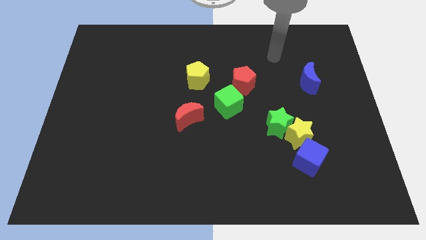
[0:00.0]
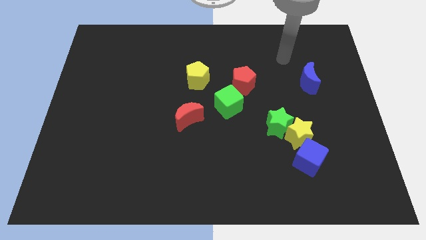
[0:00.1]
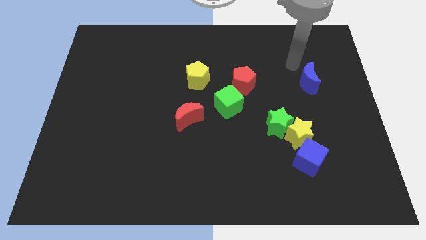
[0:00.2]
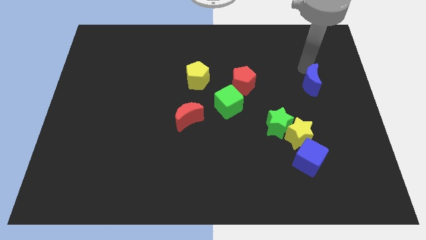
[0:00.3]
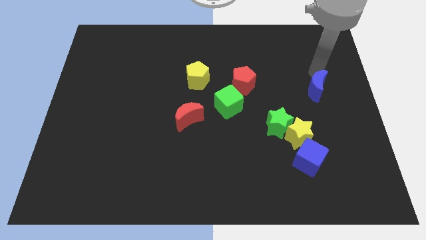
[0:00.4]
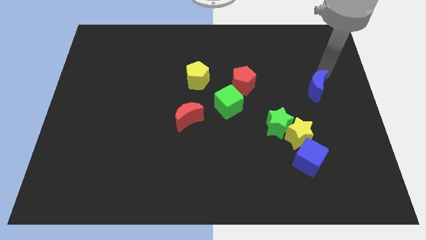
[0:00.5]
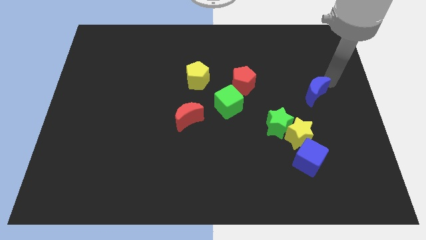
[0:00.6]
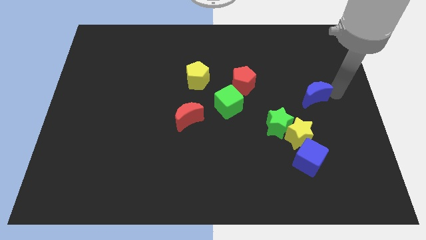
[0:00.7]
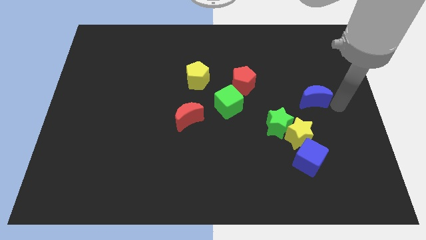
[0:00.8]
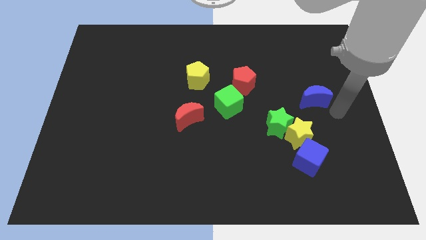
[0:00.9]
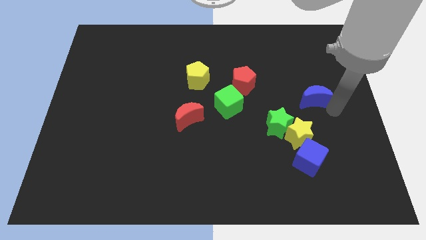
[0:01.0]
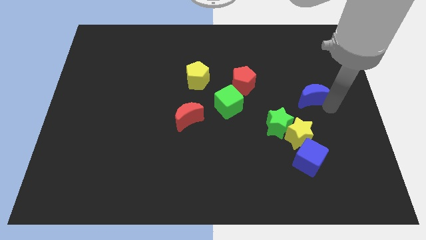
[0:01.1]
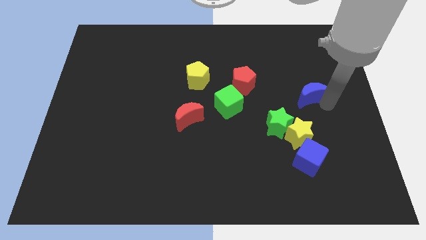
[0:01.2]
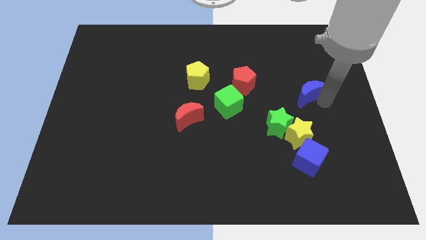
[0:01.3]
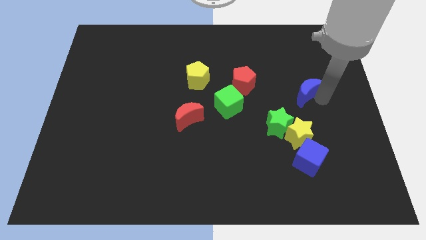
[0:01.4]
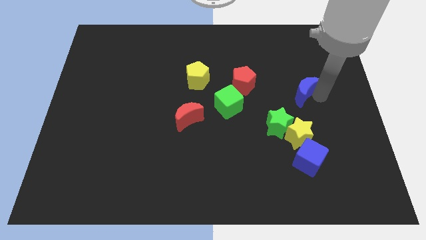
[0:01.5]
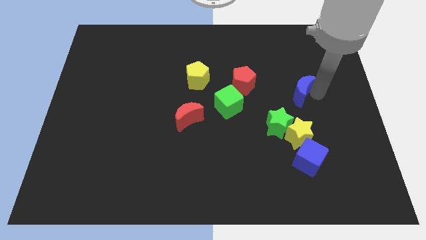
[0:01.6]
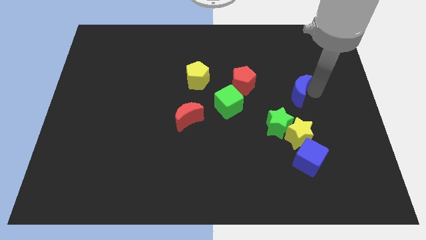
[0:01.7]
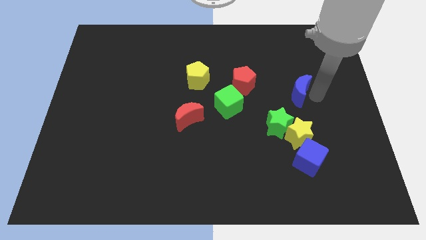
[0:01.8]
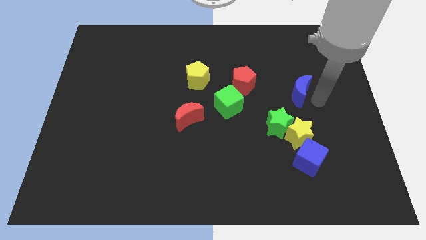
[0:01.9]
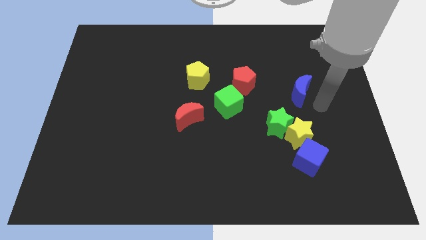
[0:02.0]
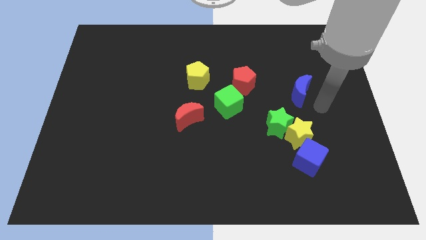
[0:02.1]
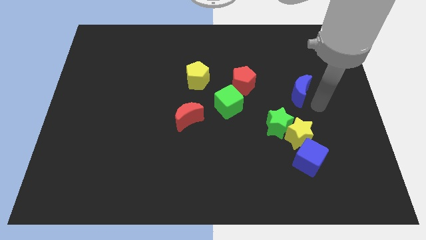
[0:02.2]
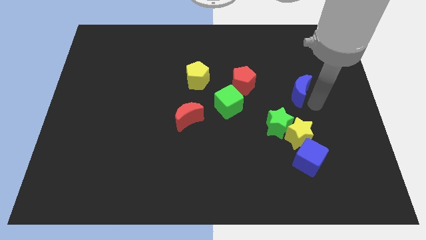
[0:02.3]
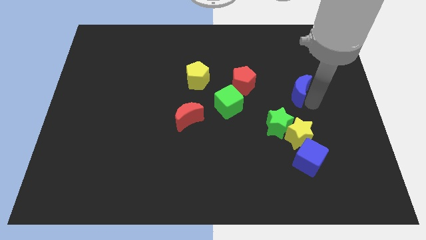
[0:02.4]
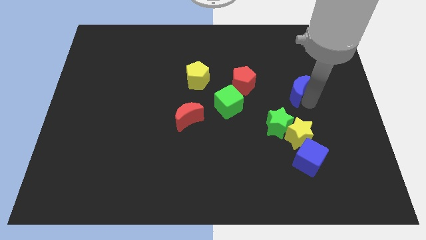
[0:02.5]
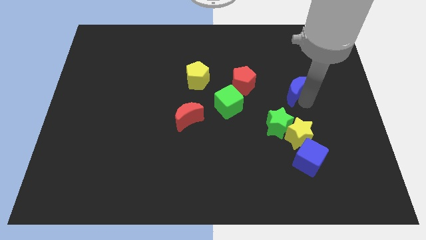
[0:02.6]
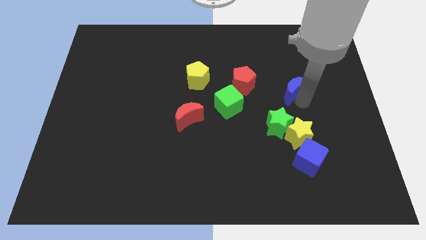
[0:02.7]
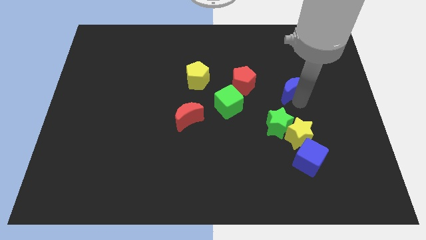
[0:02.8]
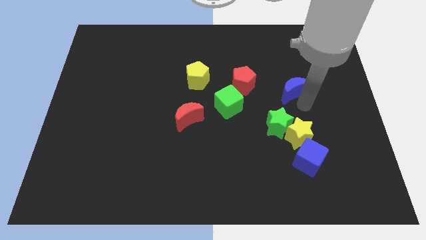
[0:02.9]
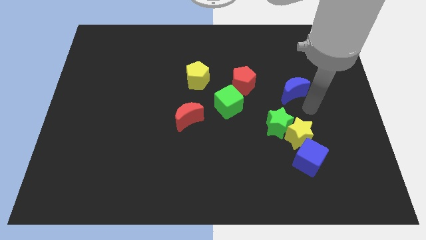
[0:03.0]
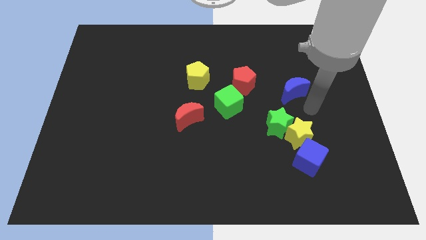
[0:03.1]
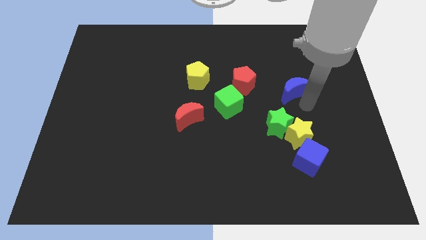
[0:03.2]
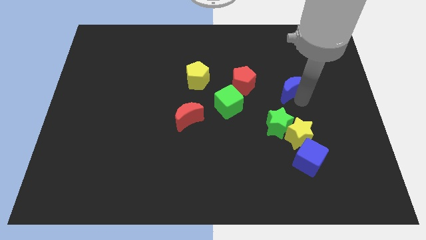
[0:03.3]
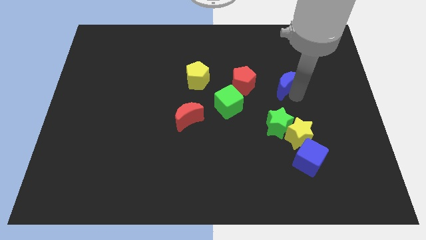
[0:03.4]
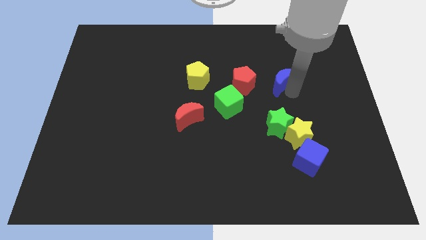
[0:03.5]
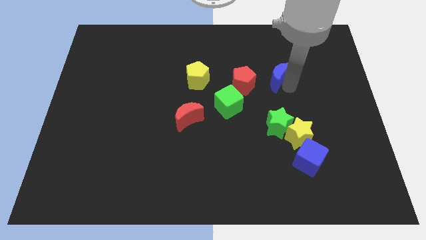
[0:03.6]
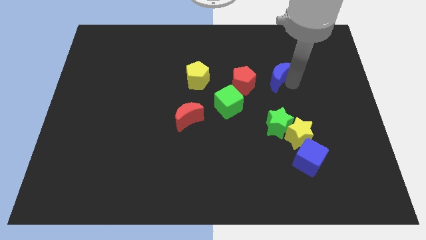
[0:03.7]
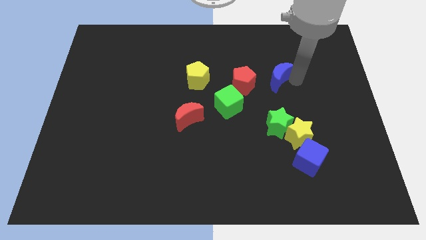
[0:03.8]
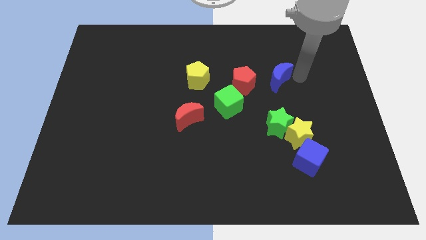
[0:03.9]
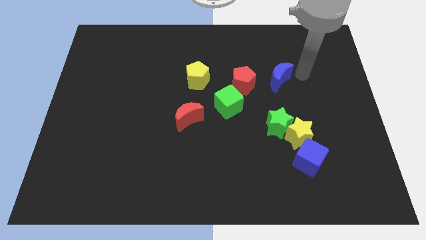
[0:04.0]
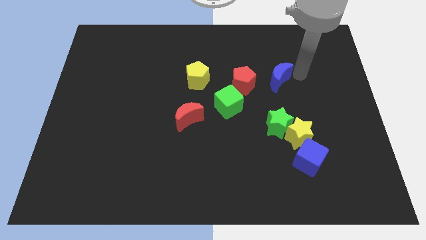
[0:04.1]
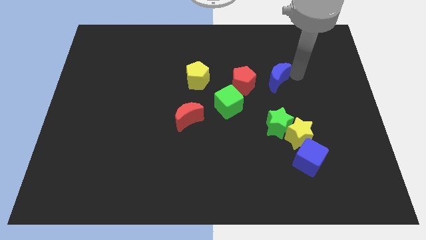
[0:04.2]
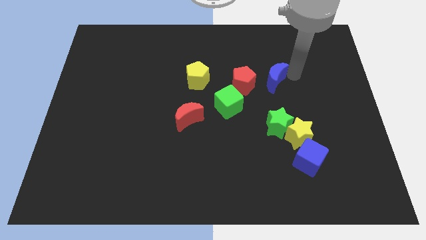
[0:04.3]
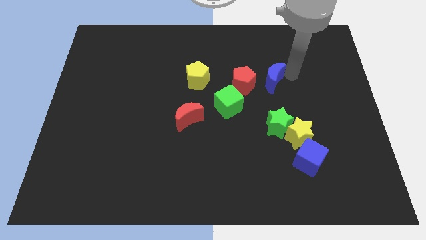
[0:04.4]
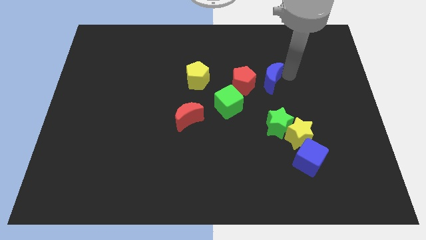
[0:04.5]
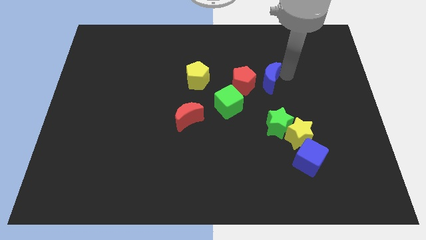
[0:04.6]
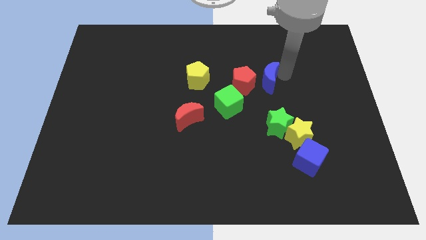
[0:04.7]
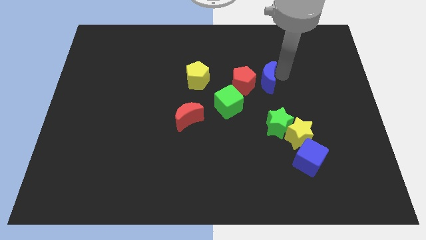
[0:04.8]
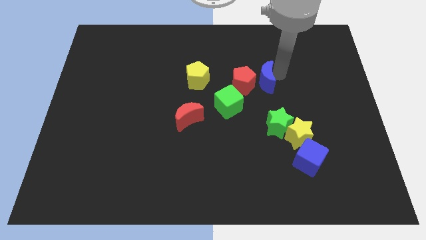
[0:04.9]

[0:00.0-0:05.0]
push the blue moon close to the red pentagon

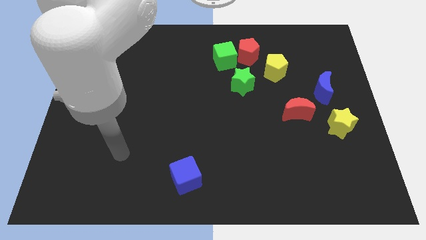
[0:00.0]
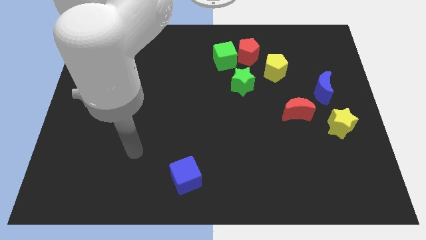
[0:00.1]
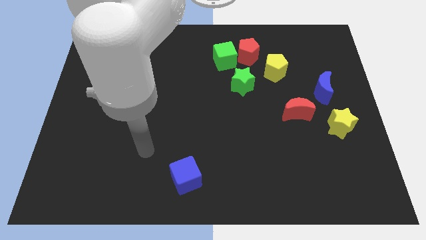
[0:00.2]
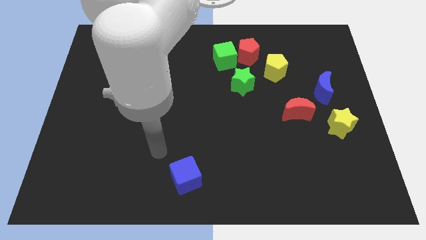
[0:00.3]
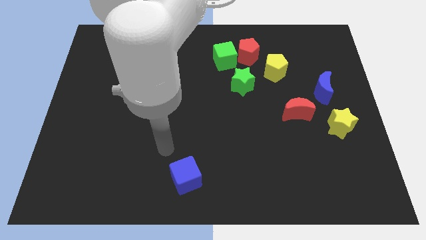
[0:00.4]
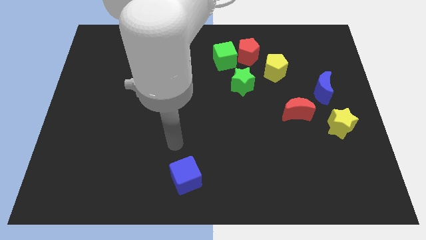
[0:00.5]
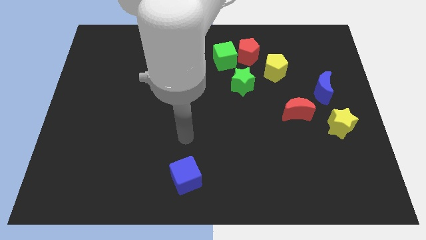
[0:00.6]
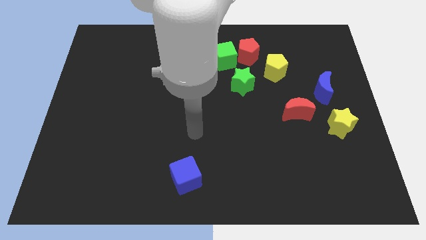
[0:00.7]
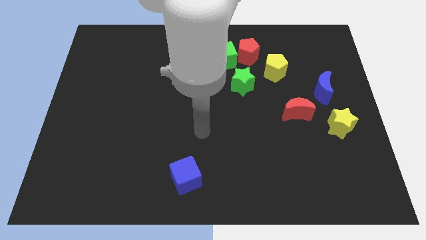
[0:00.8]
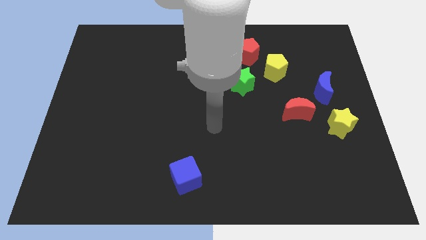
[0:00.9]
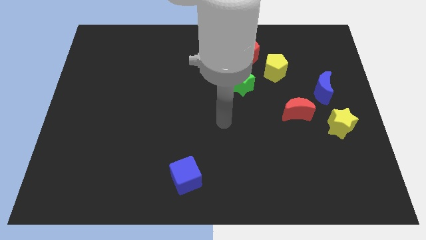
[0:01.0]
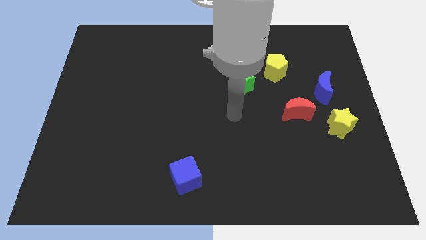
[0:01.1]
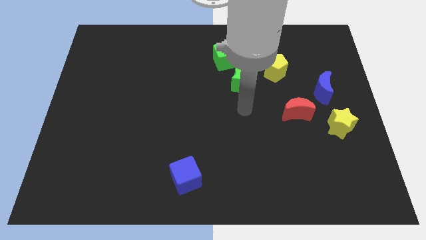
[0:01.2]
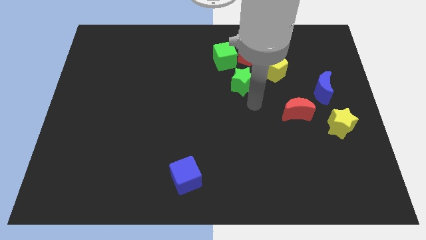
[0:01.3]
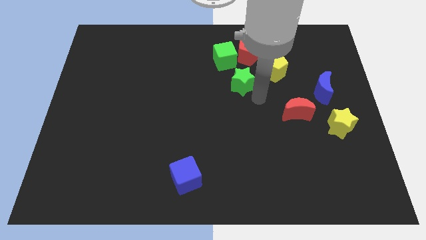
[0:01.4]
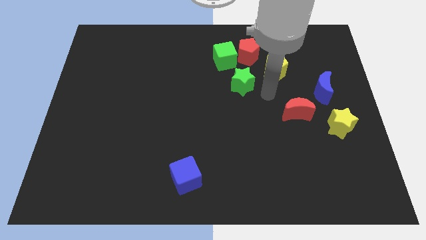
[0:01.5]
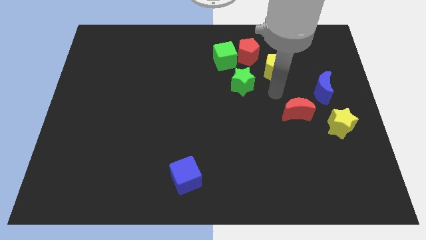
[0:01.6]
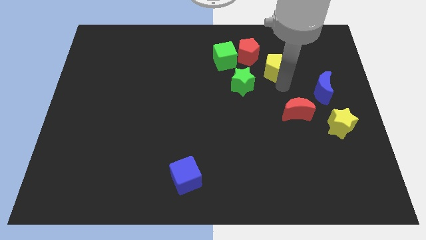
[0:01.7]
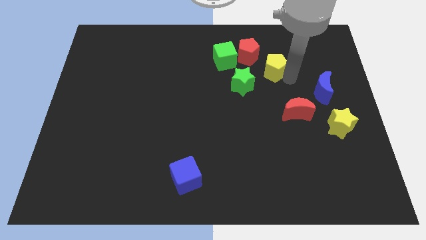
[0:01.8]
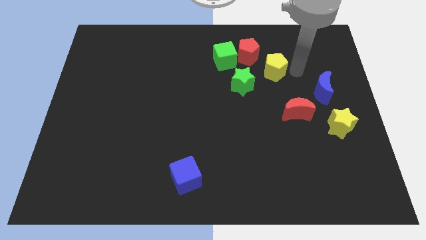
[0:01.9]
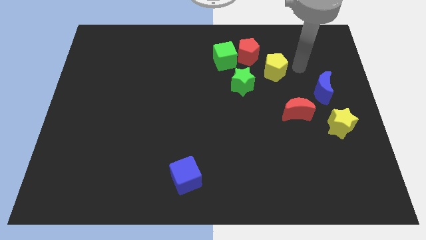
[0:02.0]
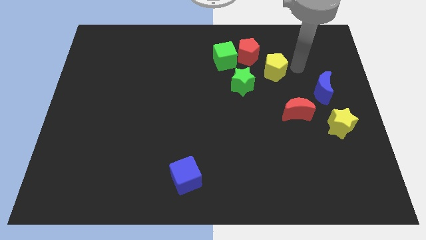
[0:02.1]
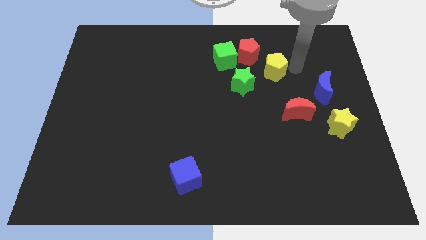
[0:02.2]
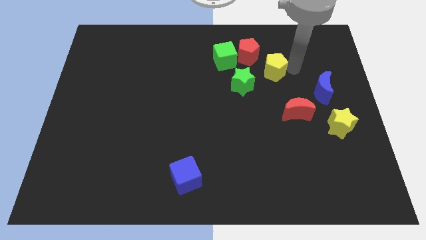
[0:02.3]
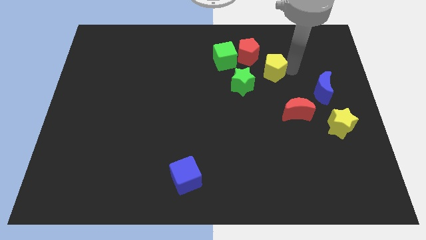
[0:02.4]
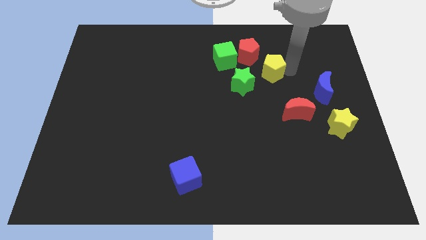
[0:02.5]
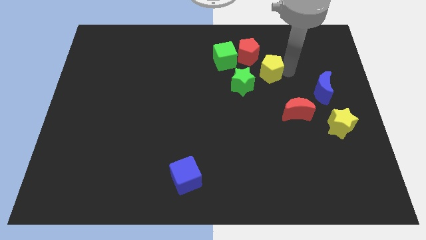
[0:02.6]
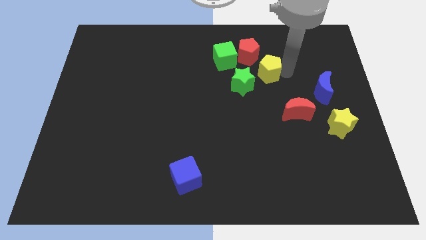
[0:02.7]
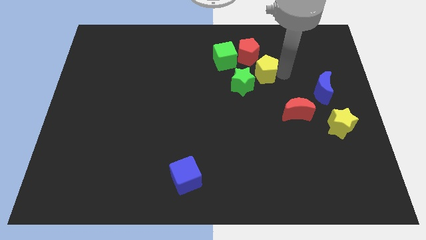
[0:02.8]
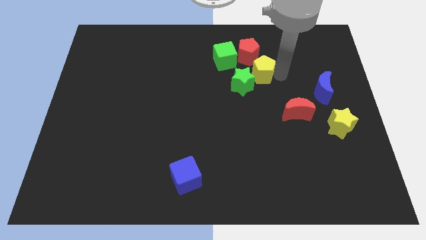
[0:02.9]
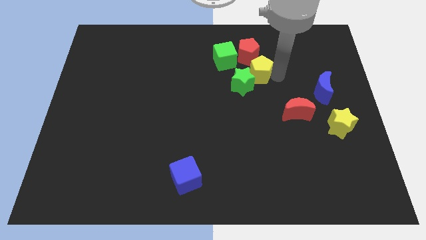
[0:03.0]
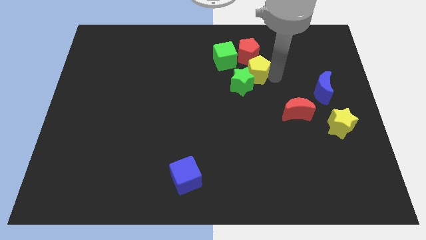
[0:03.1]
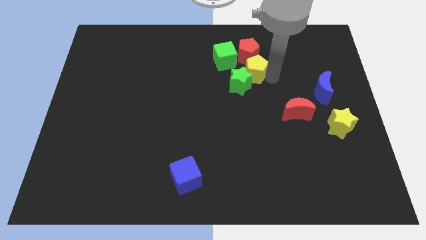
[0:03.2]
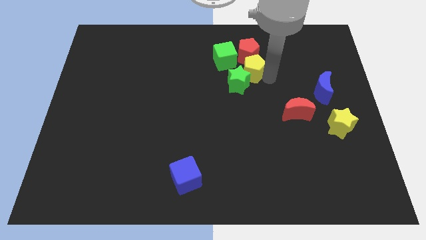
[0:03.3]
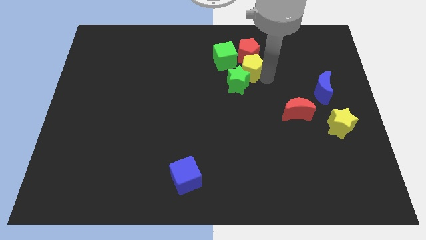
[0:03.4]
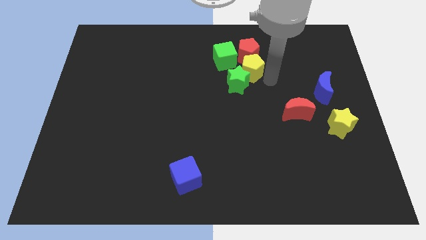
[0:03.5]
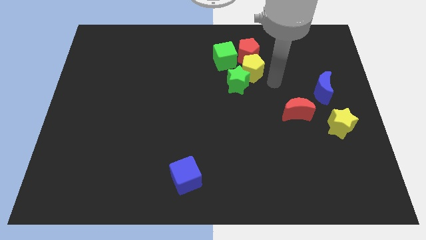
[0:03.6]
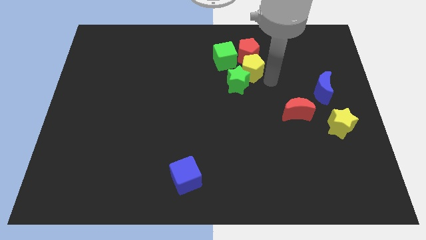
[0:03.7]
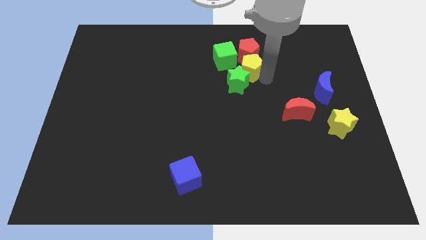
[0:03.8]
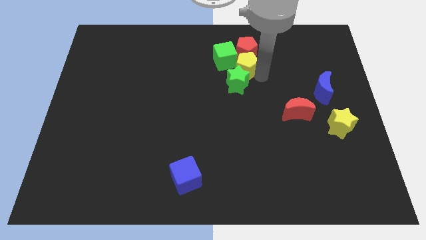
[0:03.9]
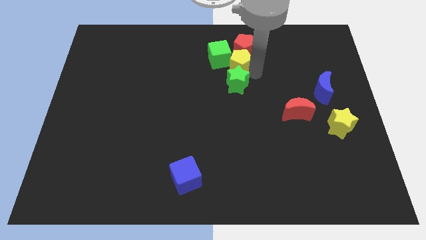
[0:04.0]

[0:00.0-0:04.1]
push the yellow pentagon towards the green cube
